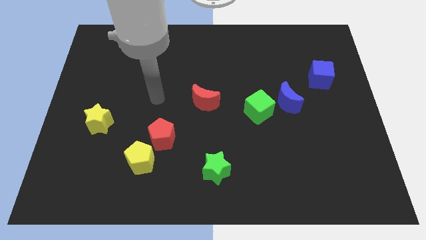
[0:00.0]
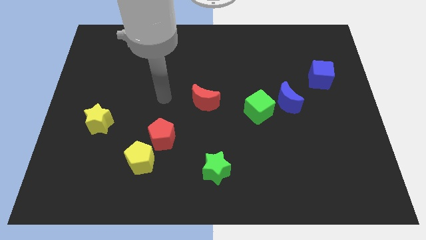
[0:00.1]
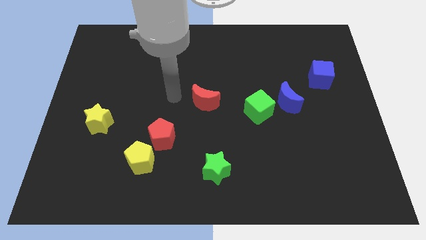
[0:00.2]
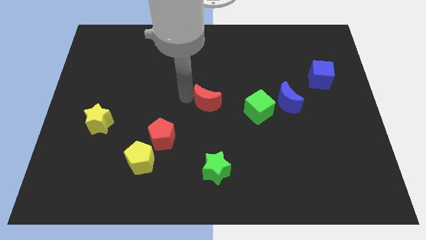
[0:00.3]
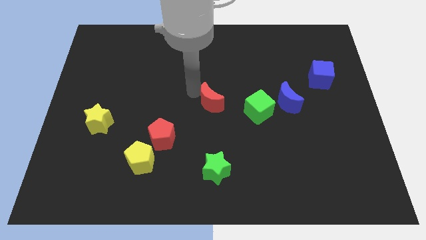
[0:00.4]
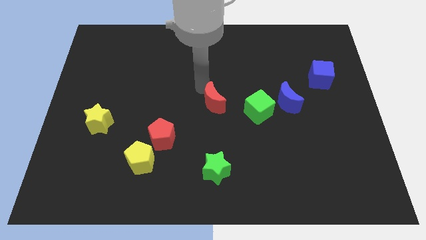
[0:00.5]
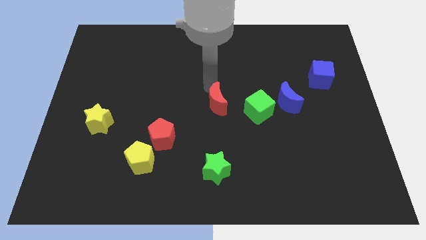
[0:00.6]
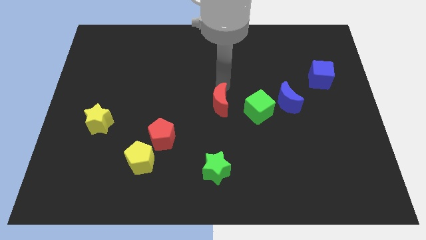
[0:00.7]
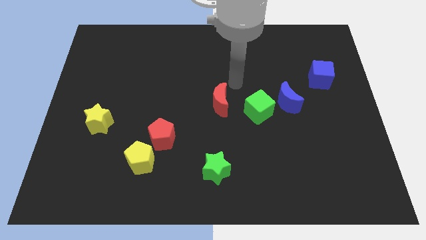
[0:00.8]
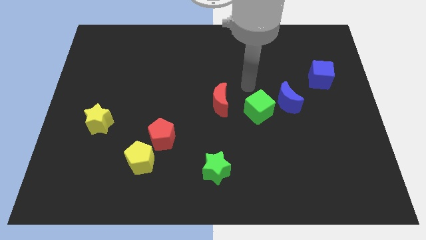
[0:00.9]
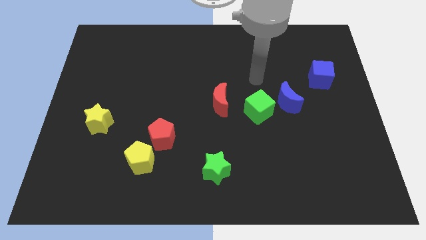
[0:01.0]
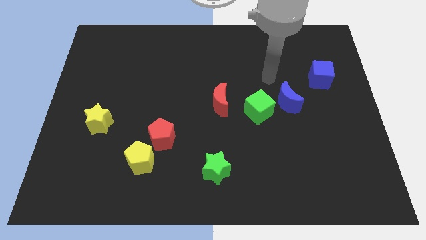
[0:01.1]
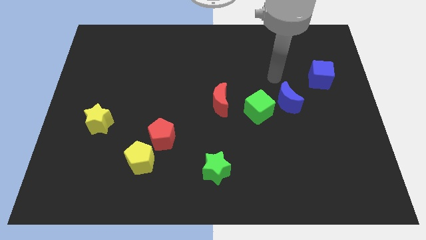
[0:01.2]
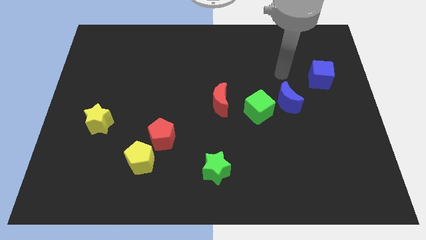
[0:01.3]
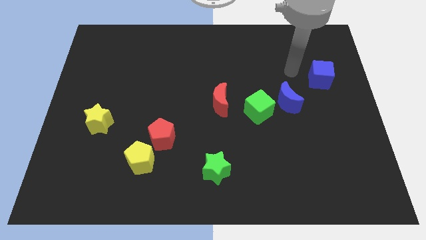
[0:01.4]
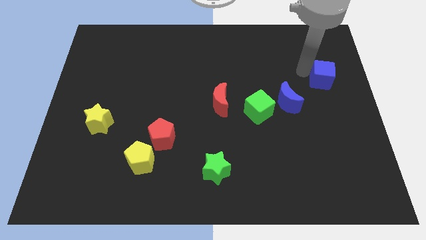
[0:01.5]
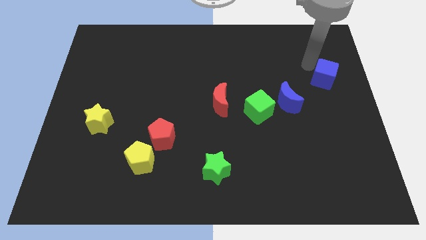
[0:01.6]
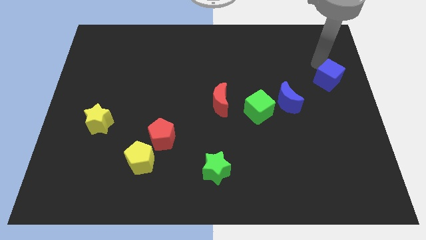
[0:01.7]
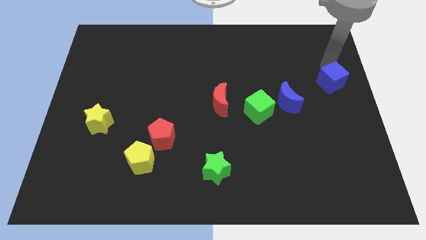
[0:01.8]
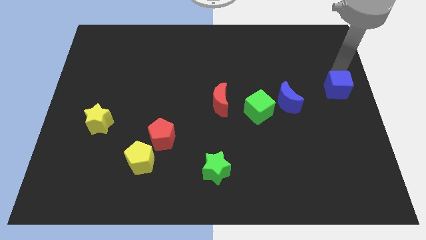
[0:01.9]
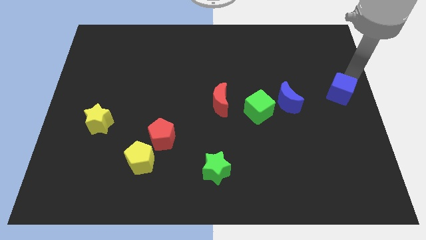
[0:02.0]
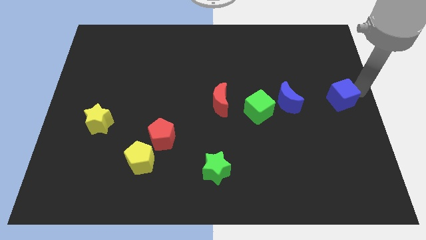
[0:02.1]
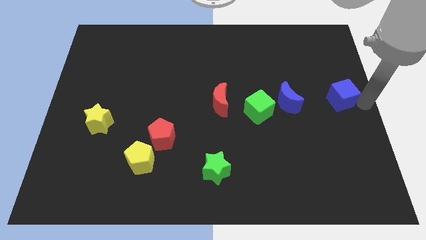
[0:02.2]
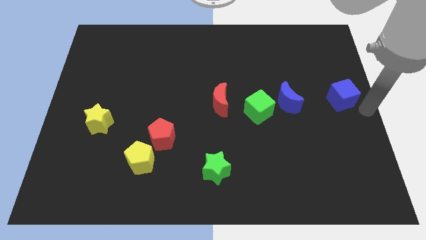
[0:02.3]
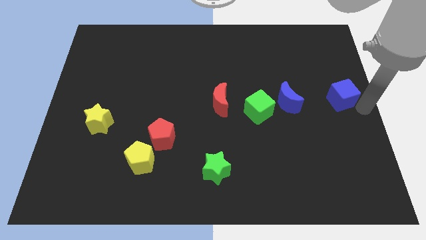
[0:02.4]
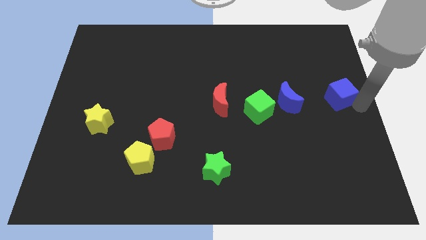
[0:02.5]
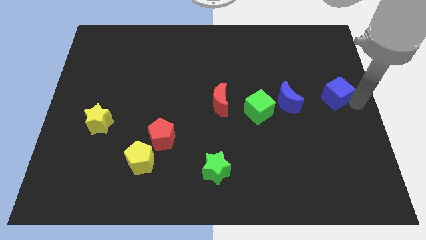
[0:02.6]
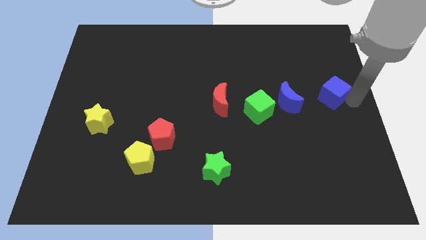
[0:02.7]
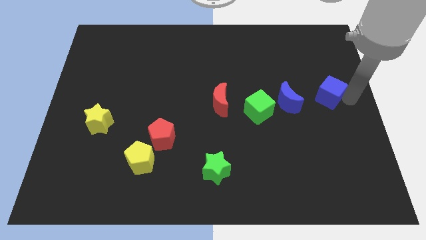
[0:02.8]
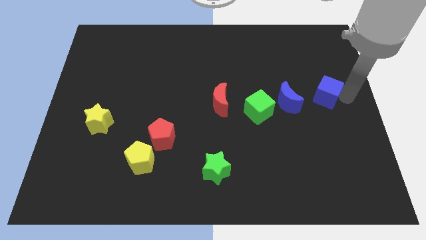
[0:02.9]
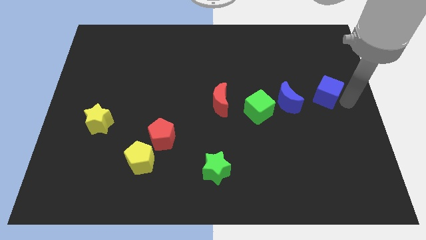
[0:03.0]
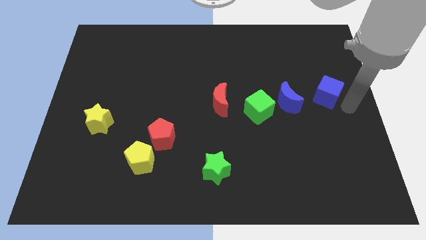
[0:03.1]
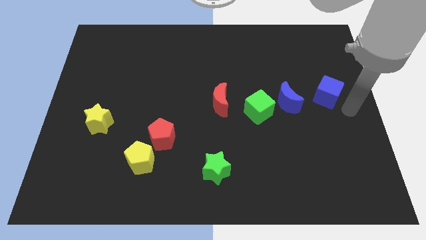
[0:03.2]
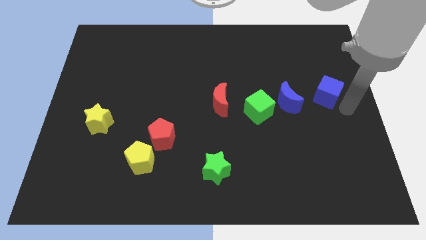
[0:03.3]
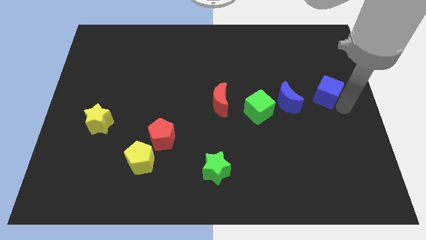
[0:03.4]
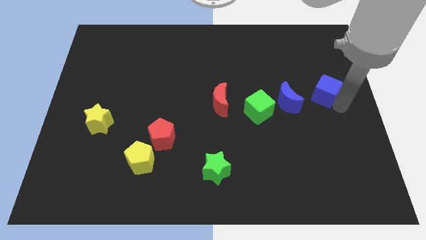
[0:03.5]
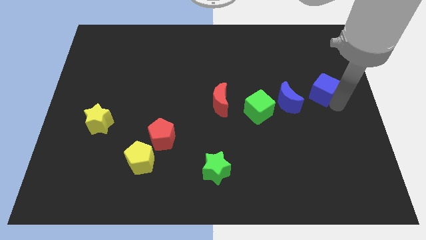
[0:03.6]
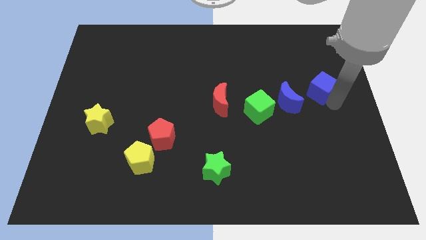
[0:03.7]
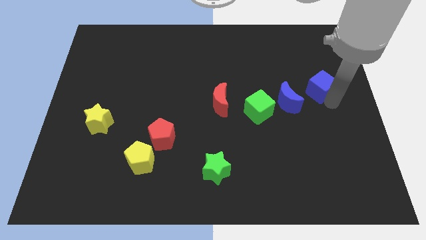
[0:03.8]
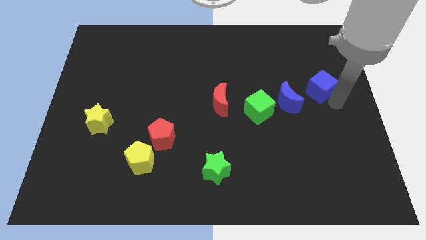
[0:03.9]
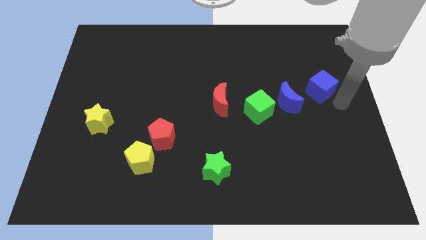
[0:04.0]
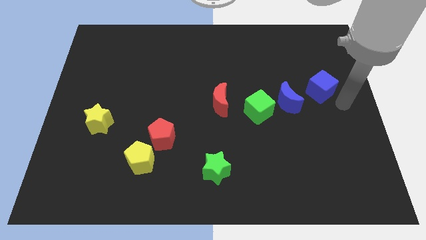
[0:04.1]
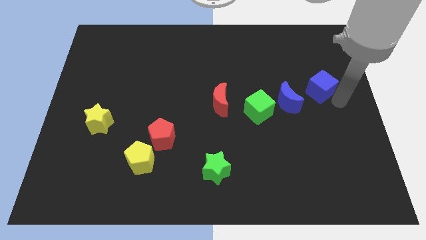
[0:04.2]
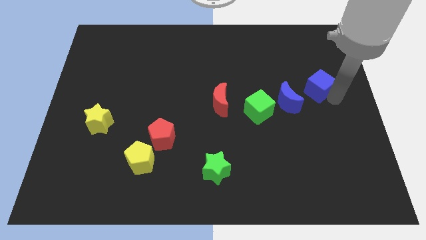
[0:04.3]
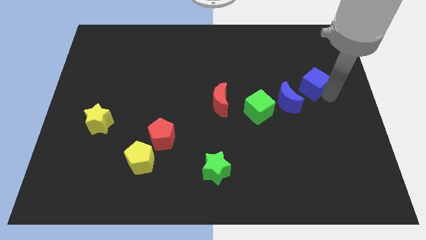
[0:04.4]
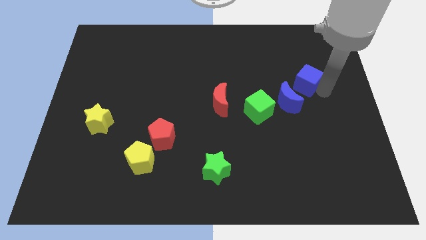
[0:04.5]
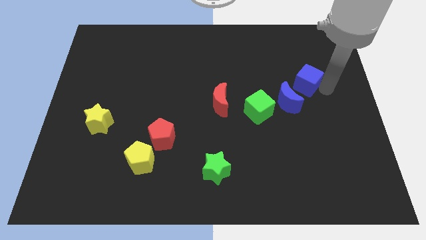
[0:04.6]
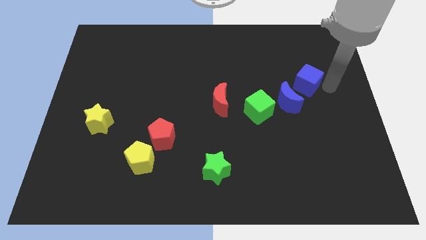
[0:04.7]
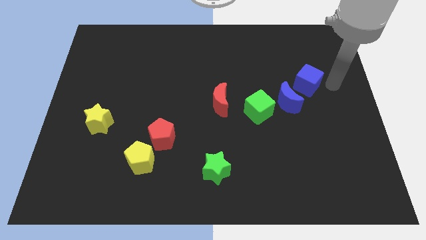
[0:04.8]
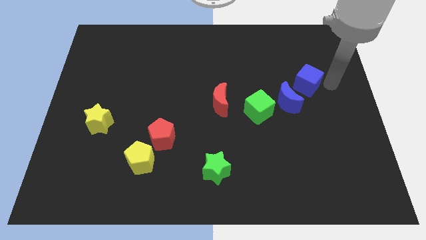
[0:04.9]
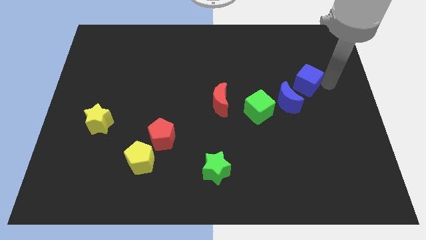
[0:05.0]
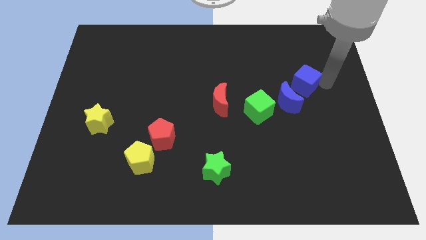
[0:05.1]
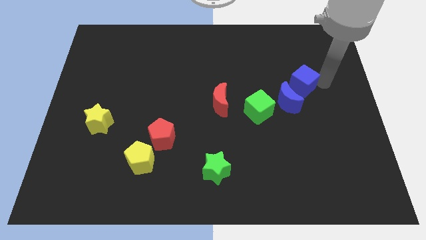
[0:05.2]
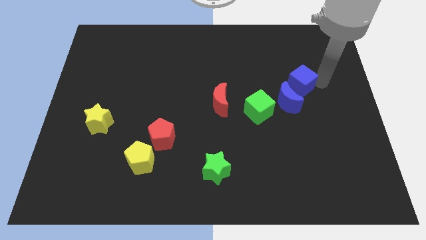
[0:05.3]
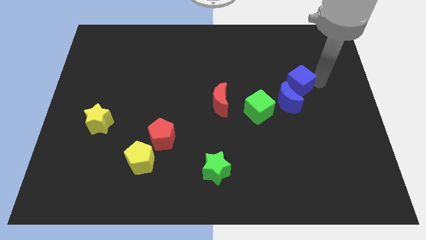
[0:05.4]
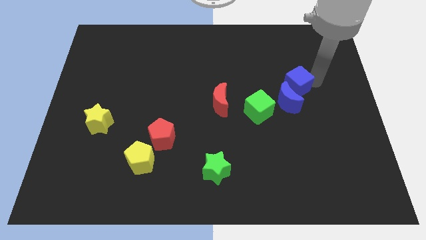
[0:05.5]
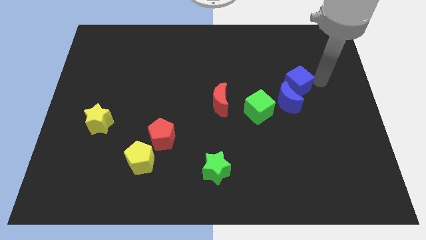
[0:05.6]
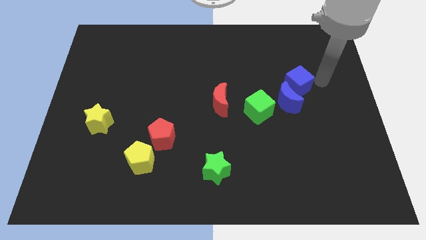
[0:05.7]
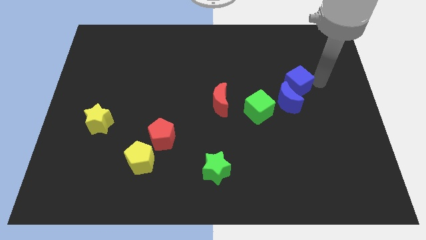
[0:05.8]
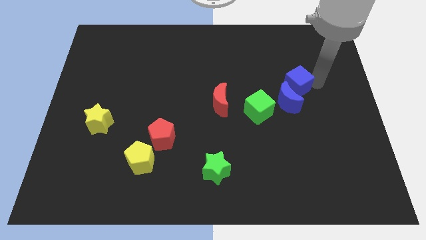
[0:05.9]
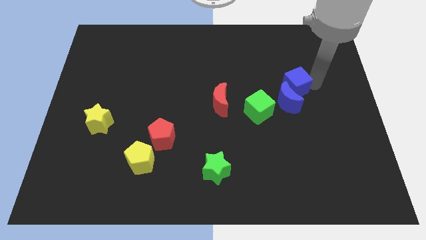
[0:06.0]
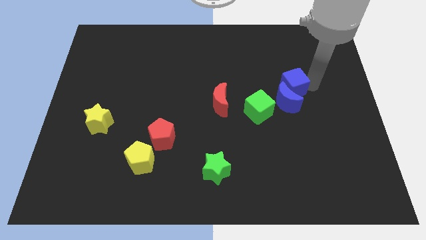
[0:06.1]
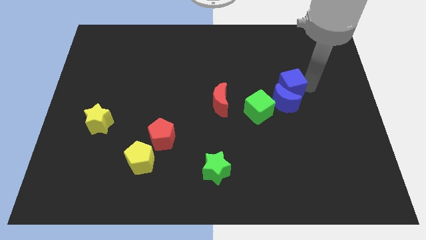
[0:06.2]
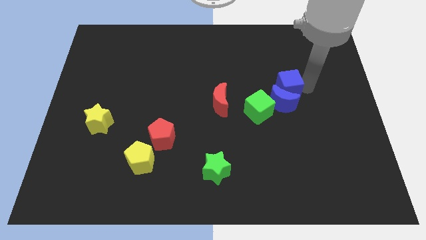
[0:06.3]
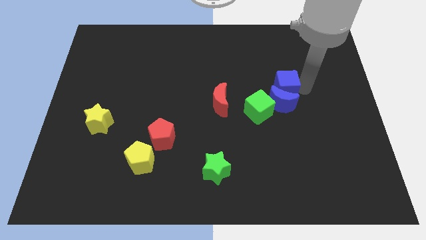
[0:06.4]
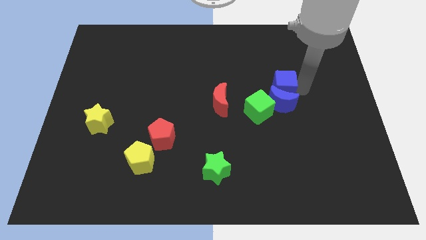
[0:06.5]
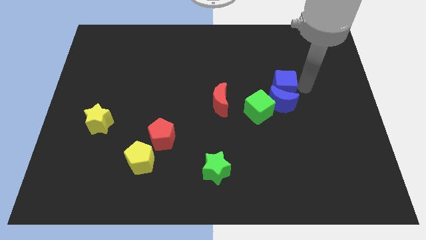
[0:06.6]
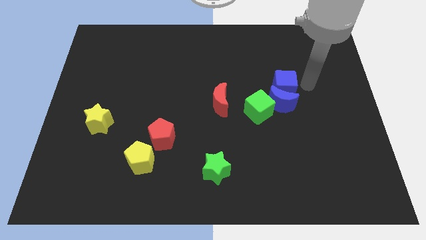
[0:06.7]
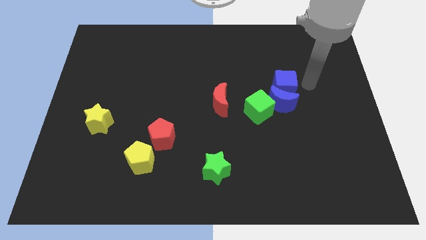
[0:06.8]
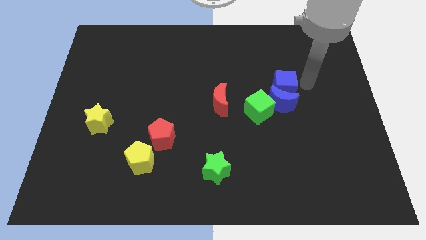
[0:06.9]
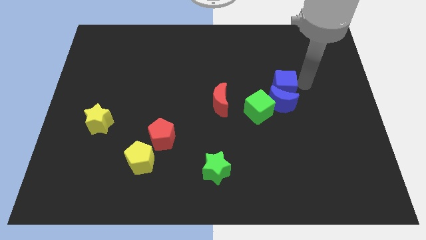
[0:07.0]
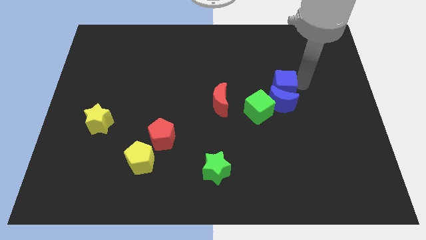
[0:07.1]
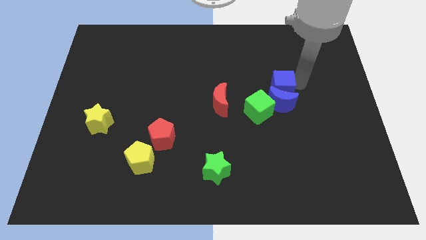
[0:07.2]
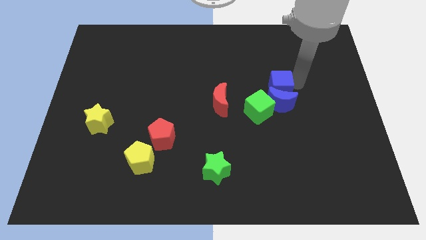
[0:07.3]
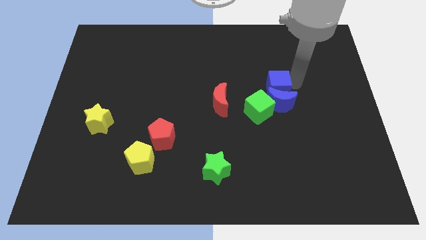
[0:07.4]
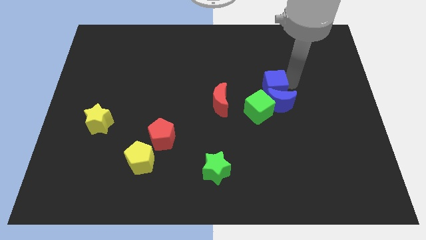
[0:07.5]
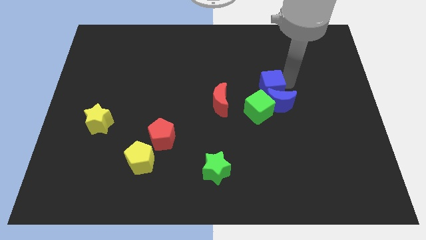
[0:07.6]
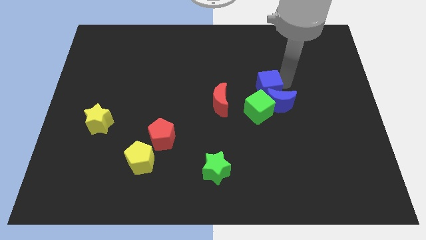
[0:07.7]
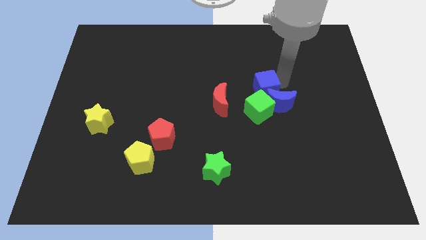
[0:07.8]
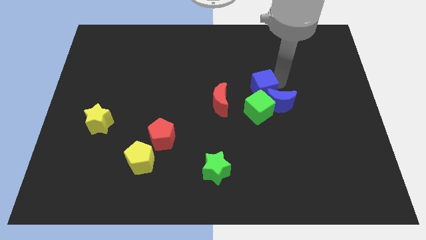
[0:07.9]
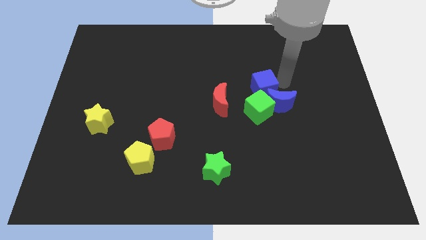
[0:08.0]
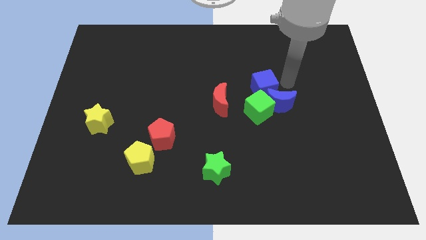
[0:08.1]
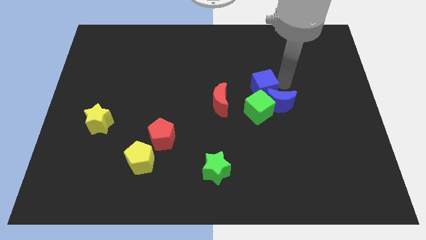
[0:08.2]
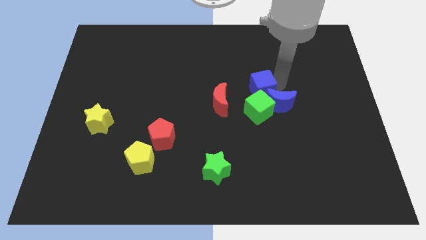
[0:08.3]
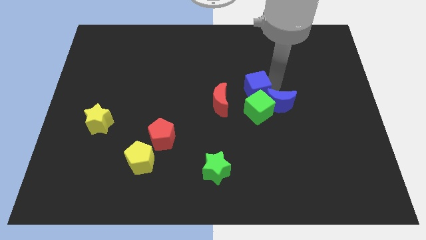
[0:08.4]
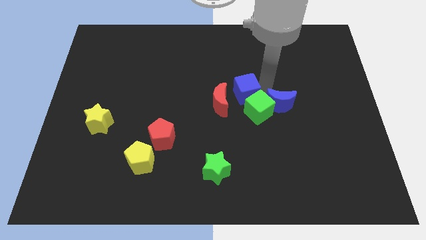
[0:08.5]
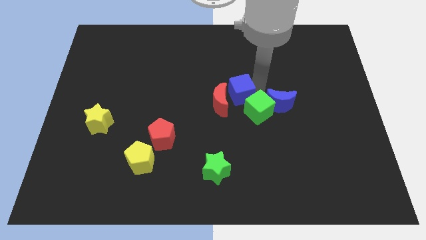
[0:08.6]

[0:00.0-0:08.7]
put the blue cube close to the red moon
